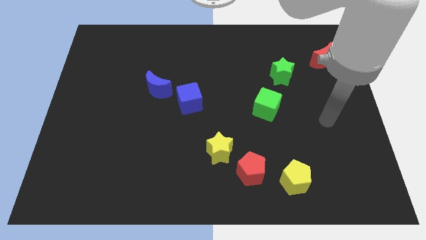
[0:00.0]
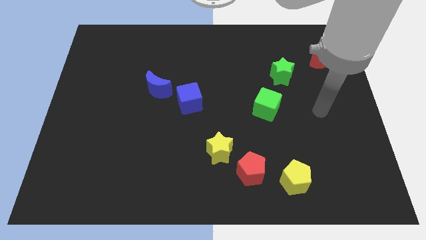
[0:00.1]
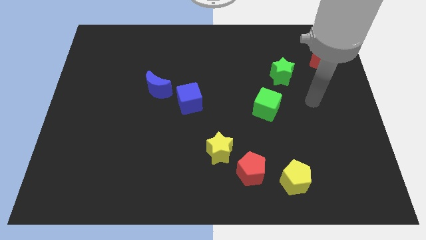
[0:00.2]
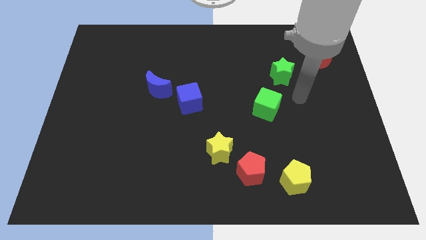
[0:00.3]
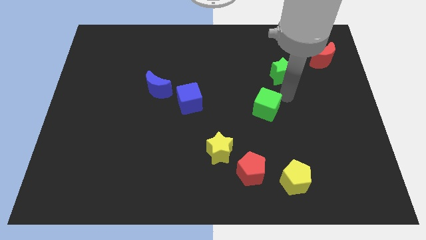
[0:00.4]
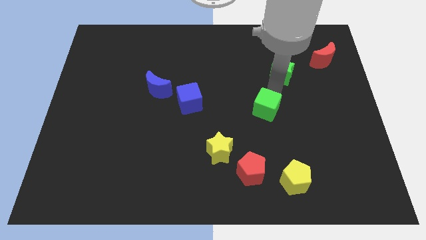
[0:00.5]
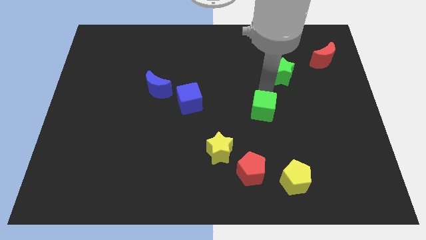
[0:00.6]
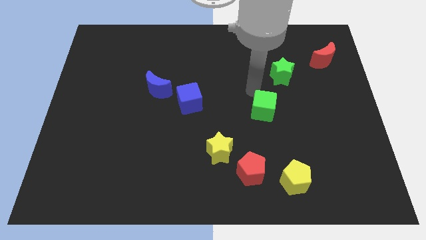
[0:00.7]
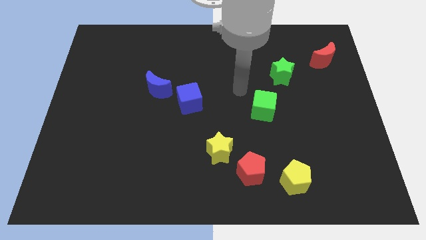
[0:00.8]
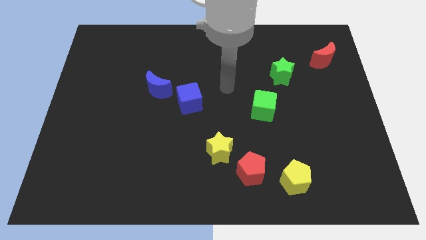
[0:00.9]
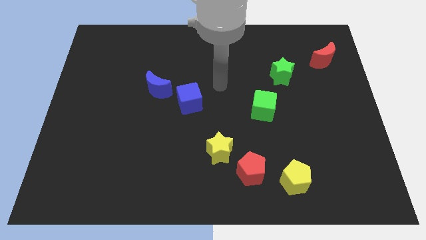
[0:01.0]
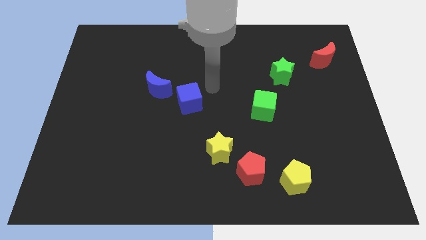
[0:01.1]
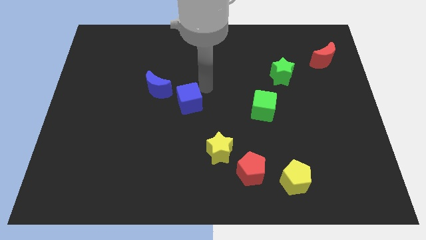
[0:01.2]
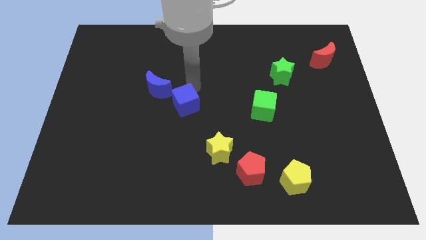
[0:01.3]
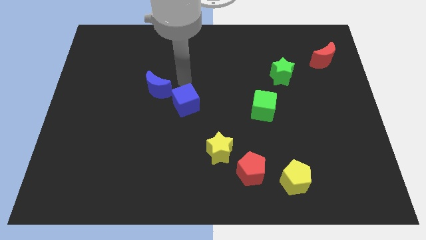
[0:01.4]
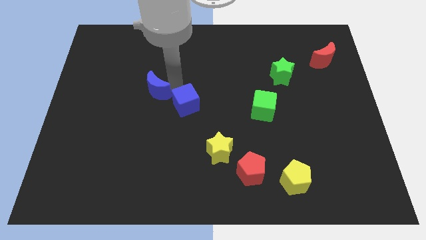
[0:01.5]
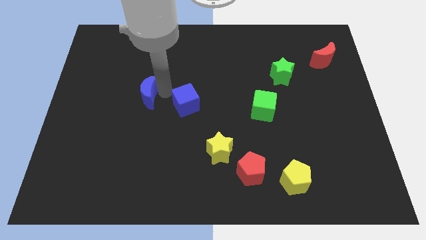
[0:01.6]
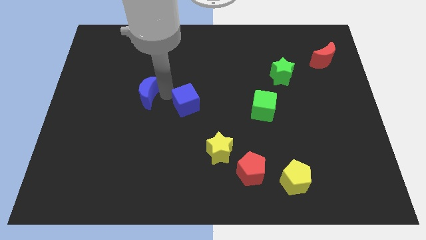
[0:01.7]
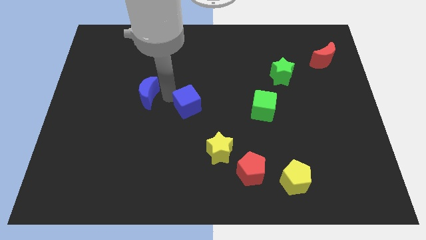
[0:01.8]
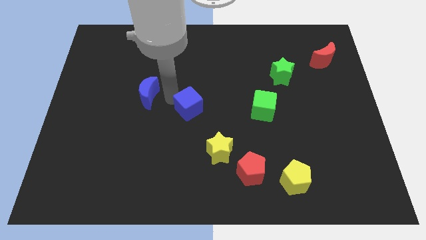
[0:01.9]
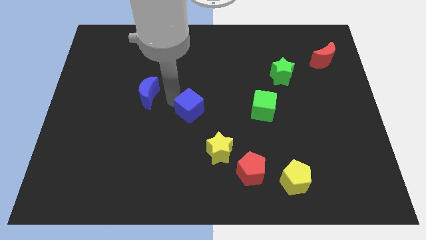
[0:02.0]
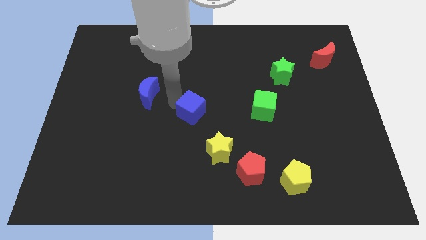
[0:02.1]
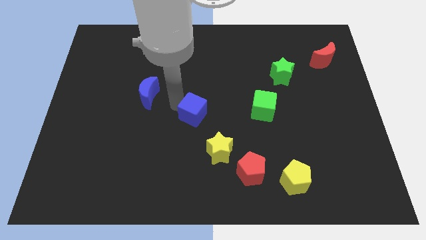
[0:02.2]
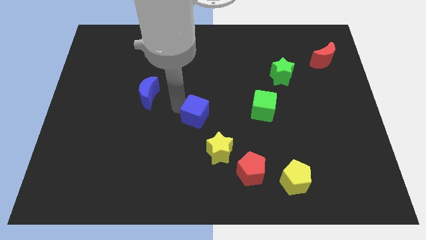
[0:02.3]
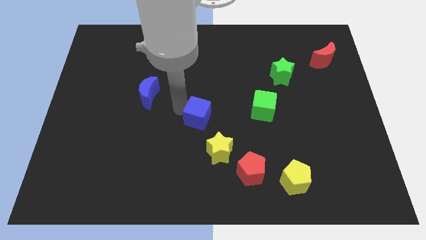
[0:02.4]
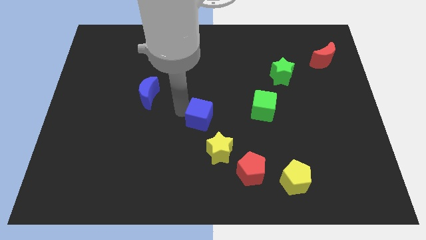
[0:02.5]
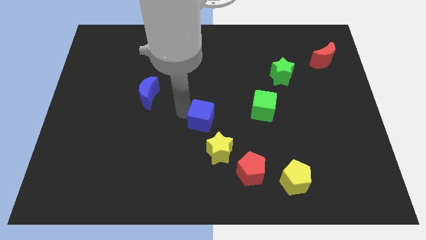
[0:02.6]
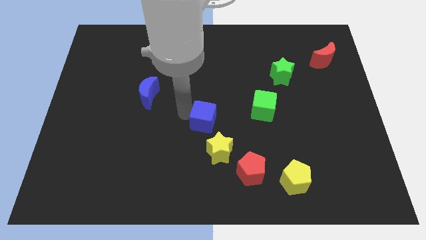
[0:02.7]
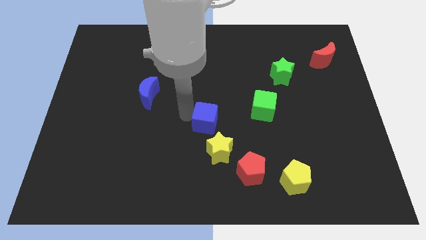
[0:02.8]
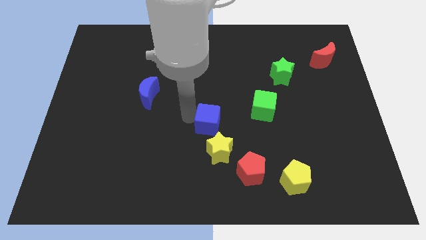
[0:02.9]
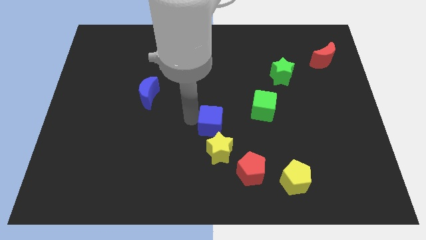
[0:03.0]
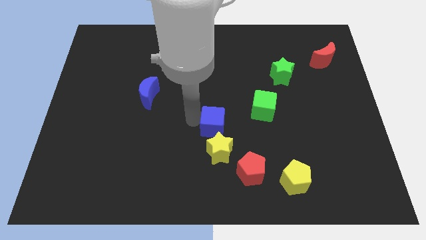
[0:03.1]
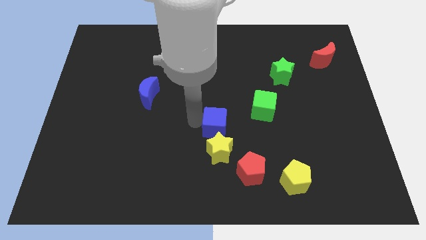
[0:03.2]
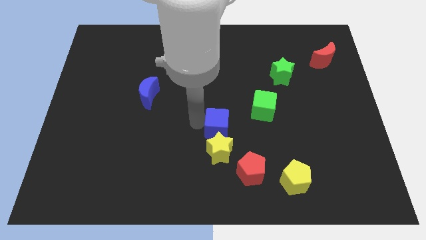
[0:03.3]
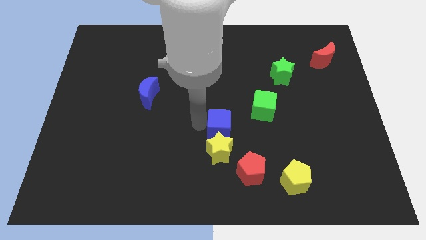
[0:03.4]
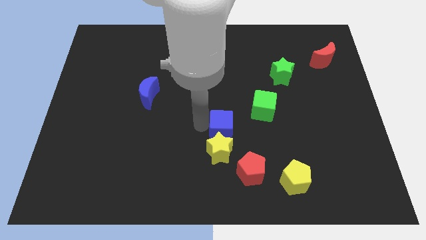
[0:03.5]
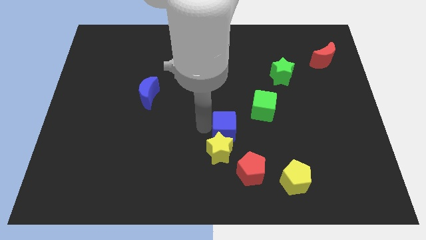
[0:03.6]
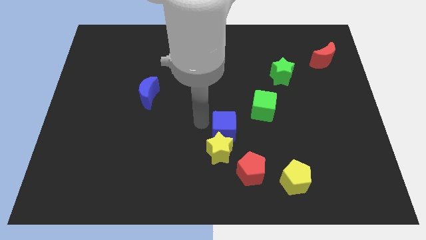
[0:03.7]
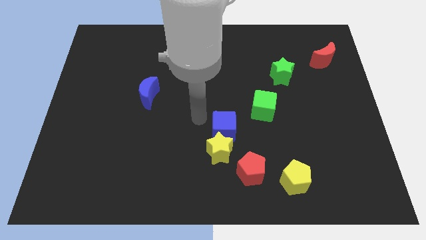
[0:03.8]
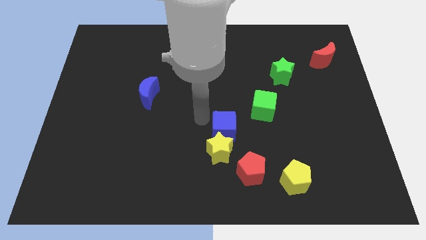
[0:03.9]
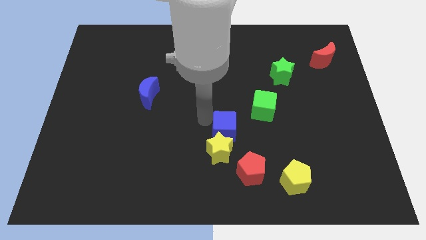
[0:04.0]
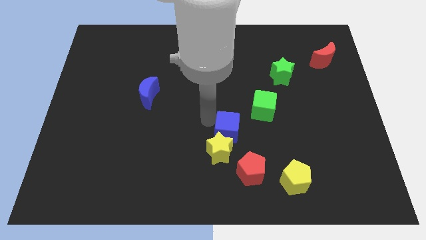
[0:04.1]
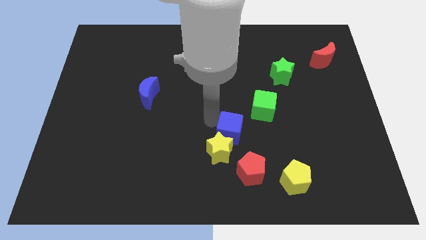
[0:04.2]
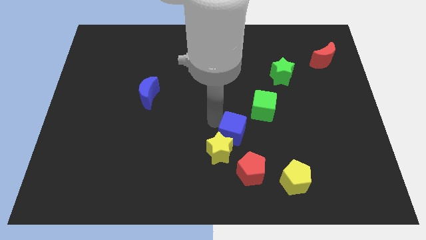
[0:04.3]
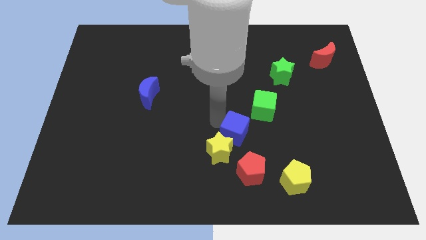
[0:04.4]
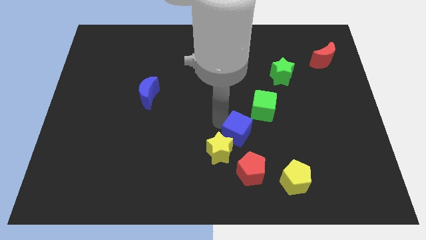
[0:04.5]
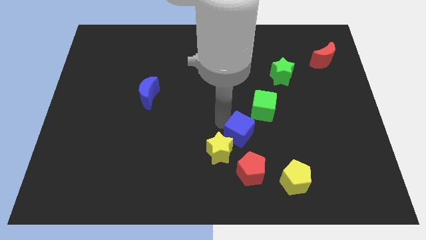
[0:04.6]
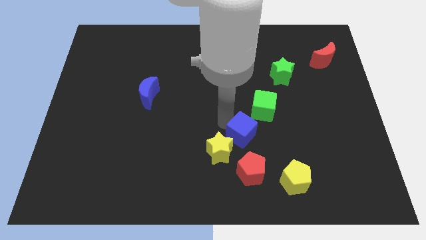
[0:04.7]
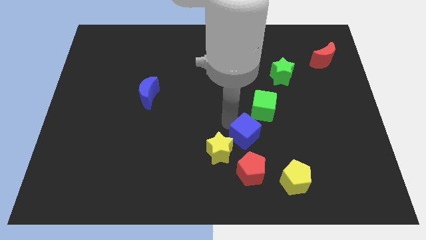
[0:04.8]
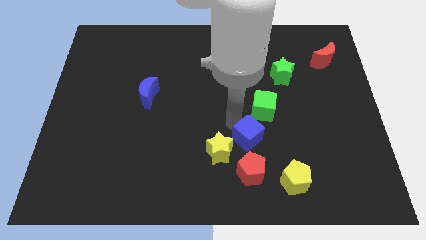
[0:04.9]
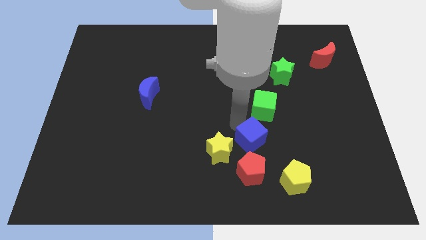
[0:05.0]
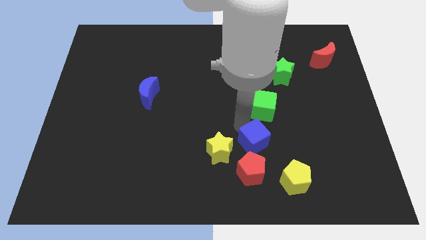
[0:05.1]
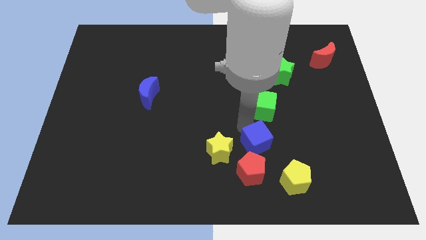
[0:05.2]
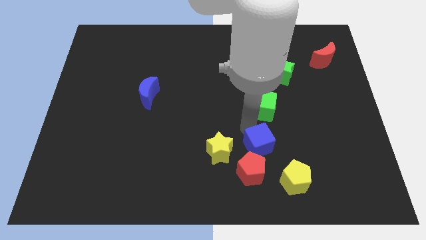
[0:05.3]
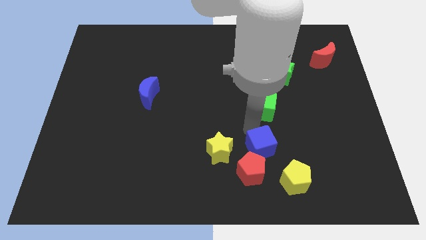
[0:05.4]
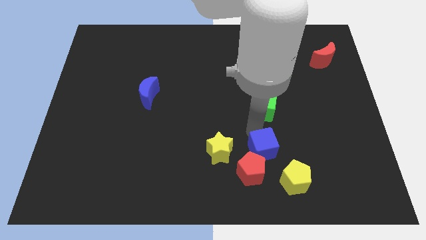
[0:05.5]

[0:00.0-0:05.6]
slide the blue cube close to the red pentagon

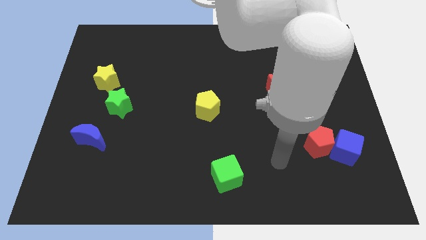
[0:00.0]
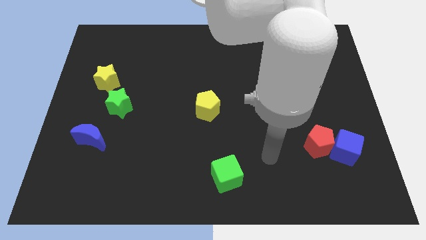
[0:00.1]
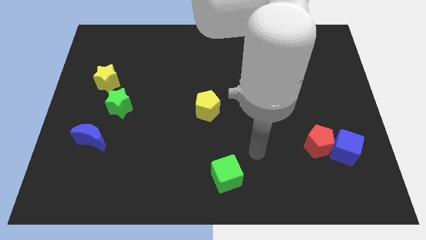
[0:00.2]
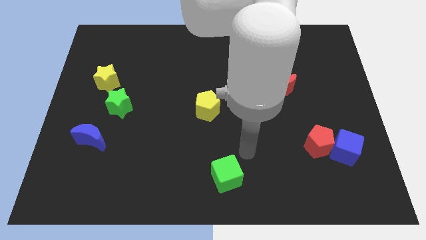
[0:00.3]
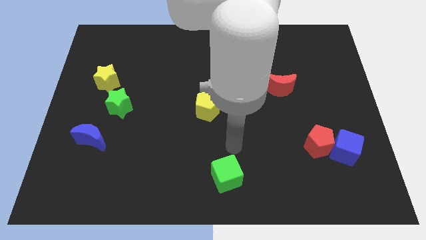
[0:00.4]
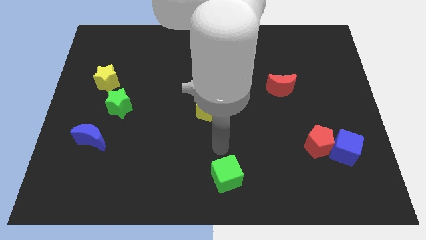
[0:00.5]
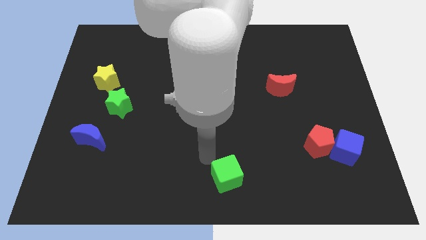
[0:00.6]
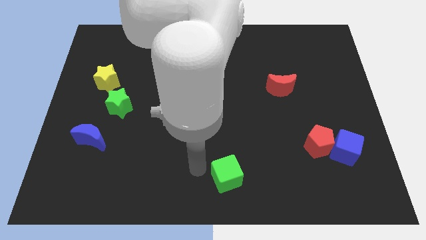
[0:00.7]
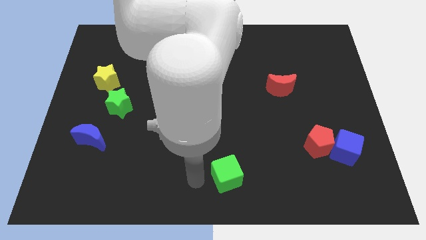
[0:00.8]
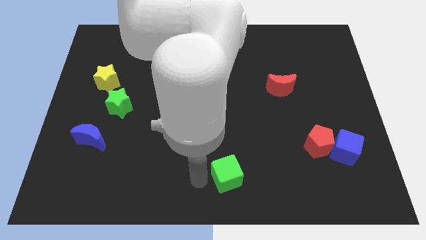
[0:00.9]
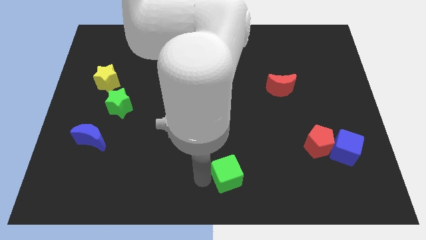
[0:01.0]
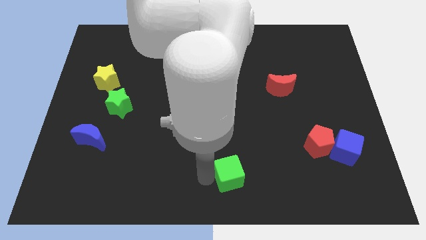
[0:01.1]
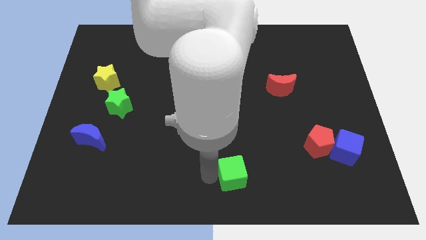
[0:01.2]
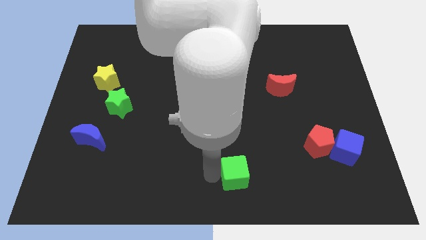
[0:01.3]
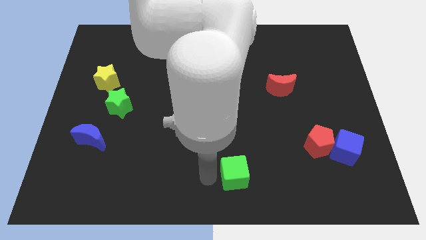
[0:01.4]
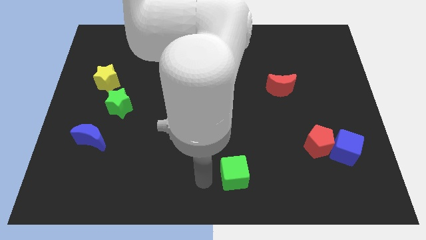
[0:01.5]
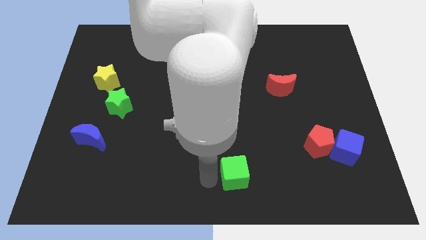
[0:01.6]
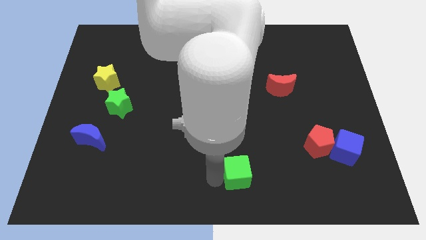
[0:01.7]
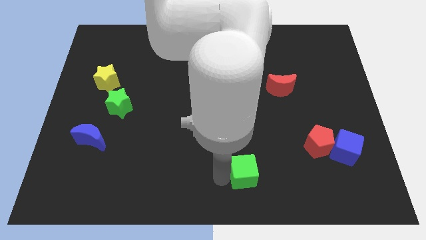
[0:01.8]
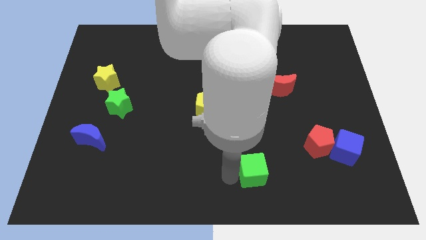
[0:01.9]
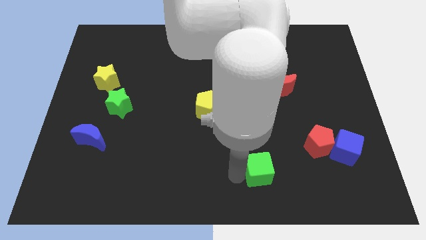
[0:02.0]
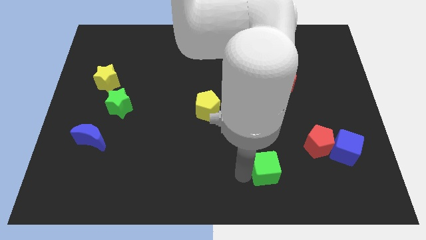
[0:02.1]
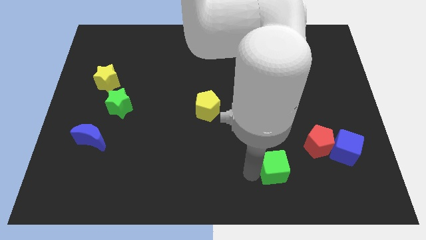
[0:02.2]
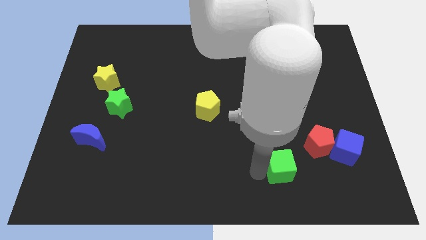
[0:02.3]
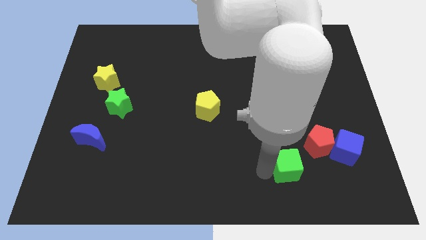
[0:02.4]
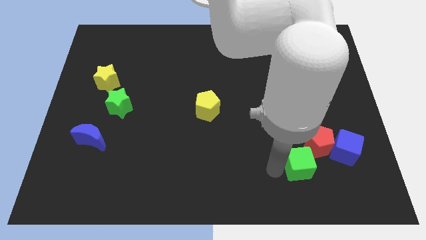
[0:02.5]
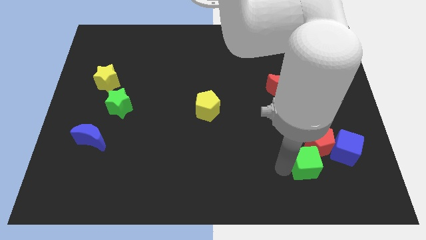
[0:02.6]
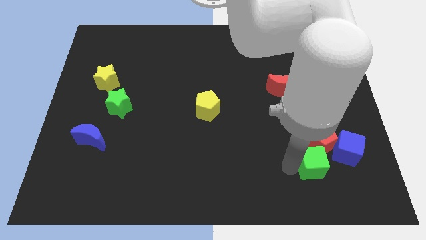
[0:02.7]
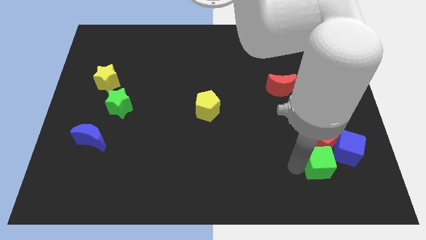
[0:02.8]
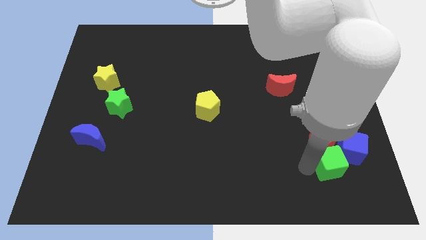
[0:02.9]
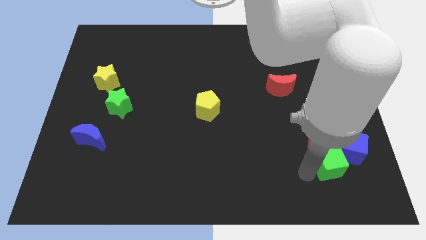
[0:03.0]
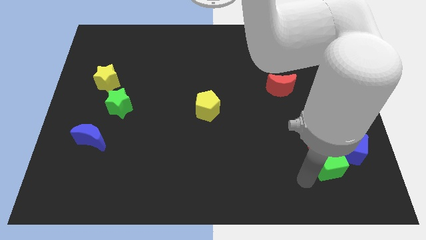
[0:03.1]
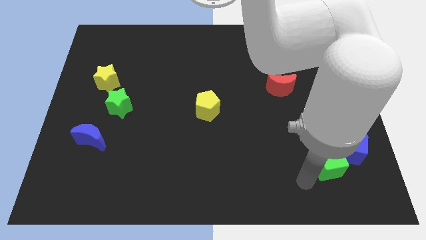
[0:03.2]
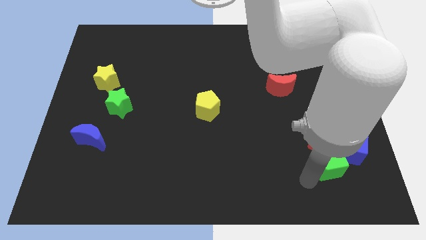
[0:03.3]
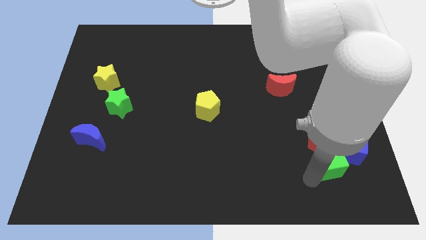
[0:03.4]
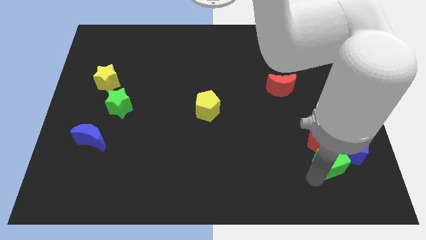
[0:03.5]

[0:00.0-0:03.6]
put the green cube towards the blue cube
